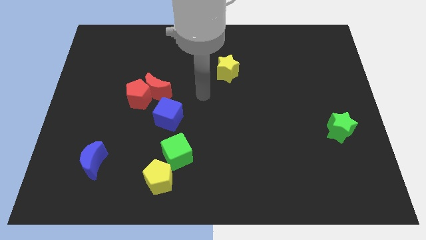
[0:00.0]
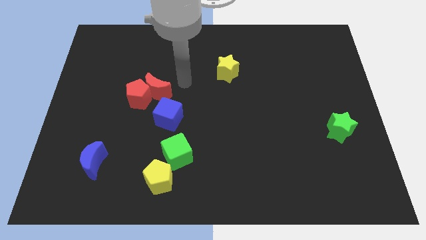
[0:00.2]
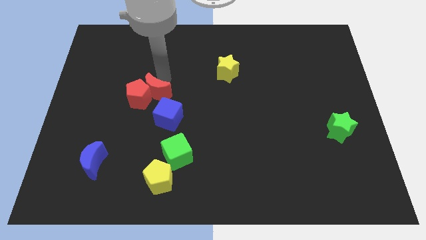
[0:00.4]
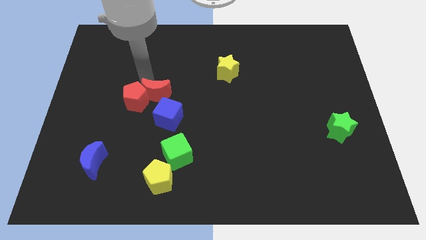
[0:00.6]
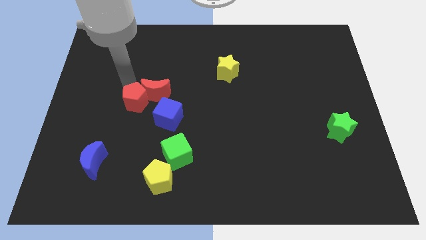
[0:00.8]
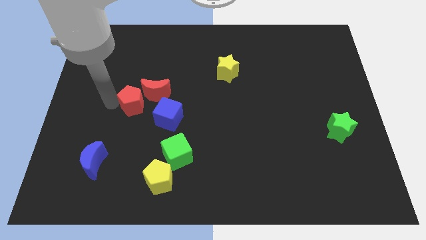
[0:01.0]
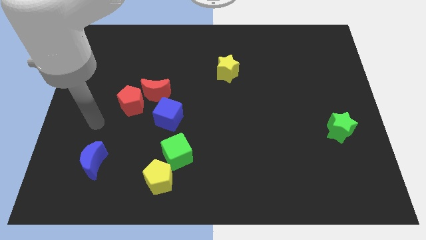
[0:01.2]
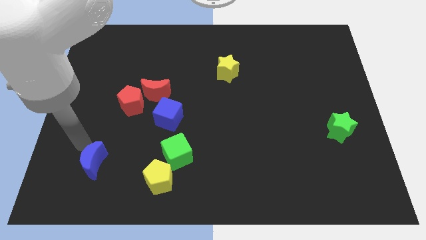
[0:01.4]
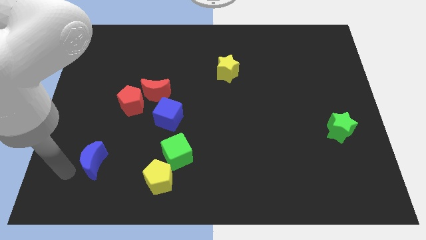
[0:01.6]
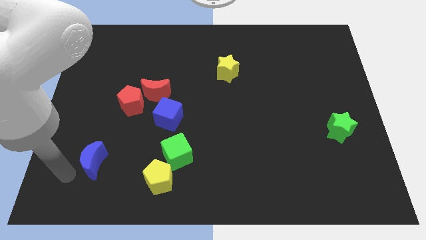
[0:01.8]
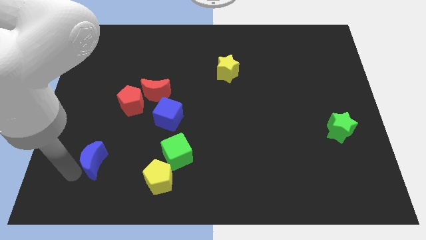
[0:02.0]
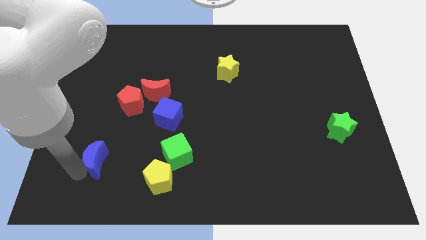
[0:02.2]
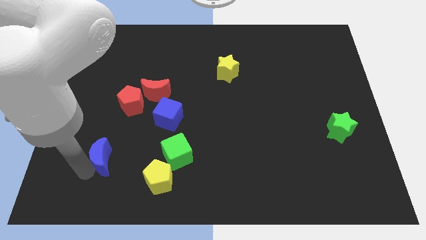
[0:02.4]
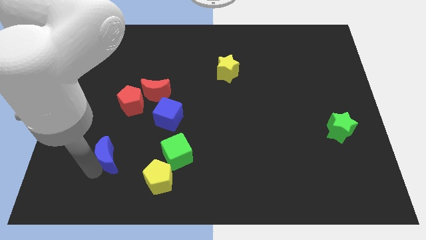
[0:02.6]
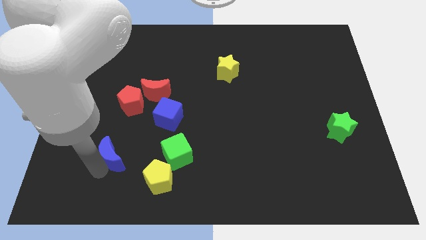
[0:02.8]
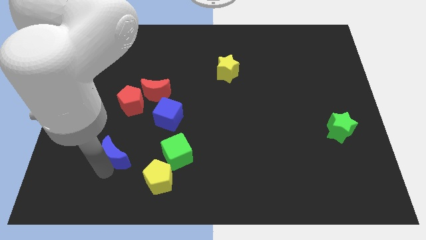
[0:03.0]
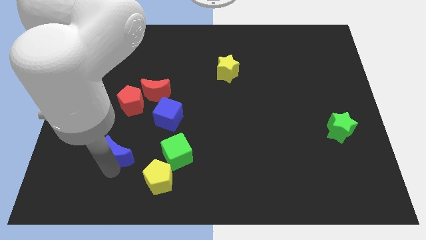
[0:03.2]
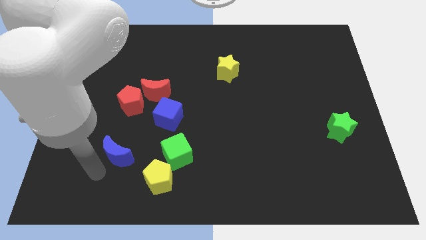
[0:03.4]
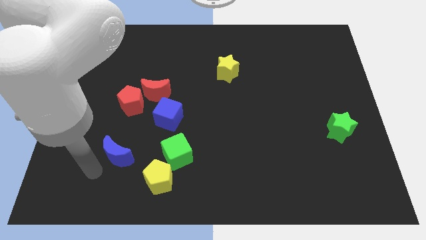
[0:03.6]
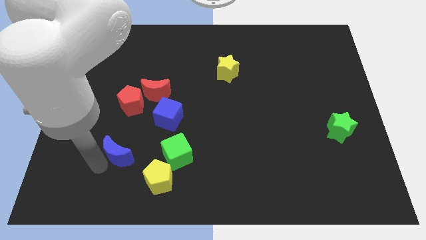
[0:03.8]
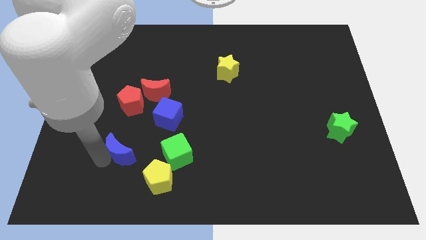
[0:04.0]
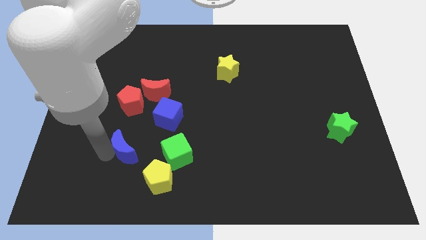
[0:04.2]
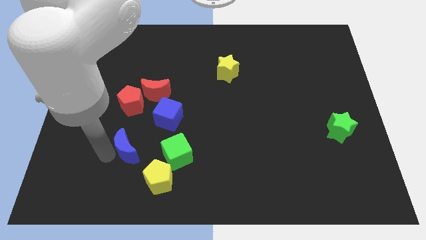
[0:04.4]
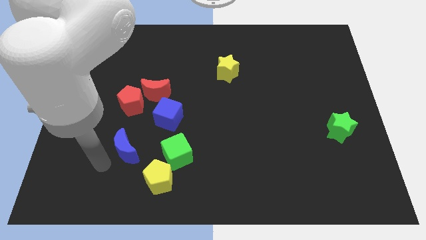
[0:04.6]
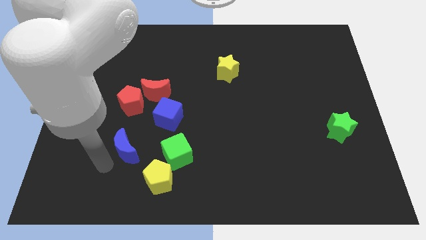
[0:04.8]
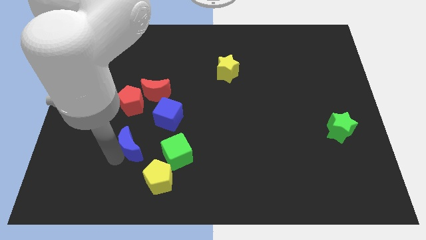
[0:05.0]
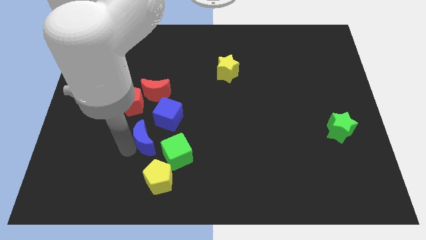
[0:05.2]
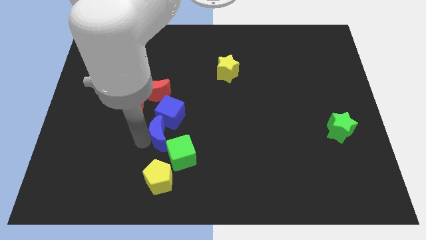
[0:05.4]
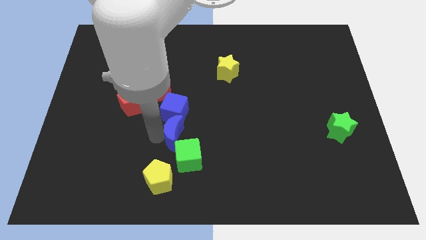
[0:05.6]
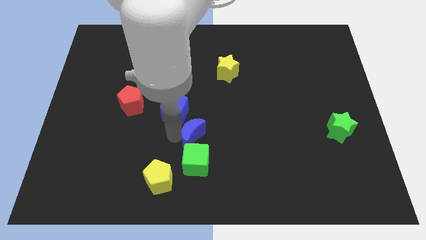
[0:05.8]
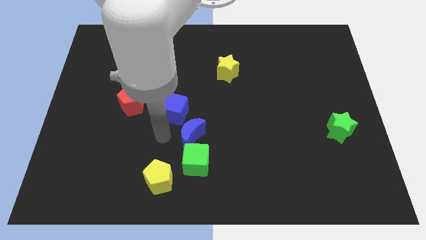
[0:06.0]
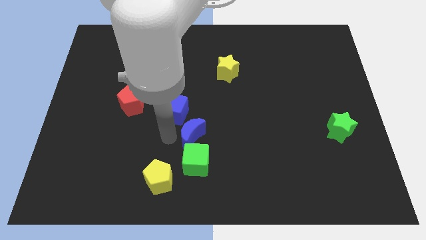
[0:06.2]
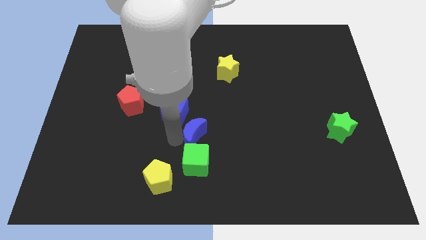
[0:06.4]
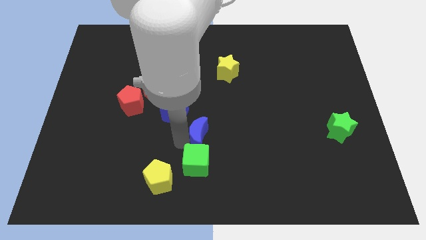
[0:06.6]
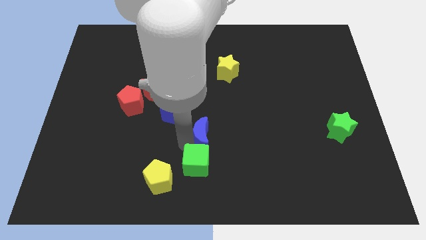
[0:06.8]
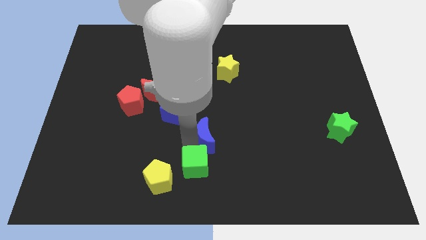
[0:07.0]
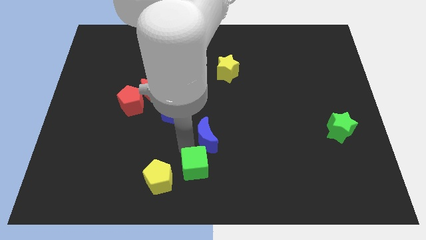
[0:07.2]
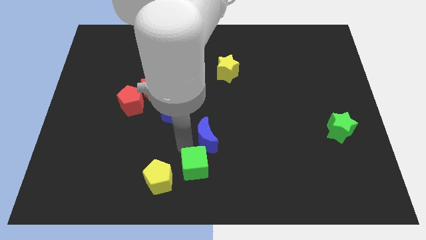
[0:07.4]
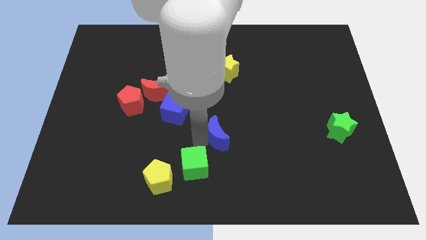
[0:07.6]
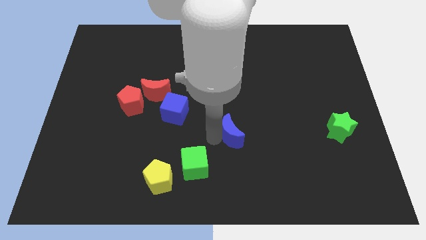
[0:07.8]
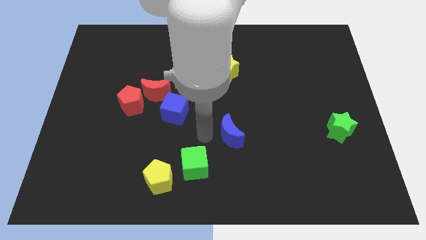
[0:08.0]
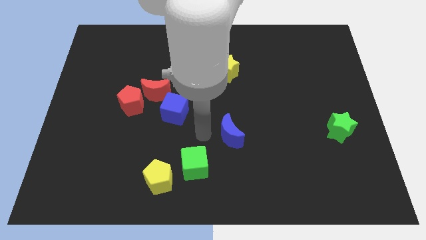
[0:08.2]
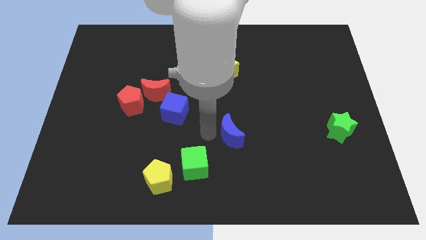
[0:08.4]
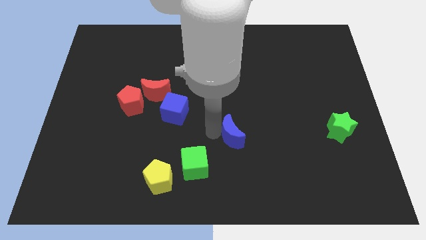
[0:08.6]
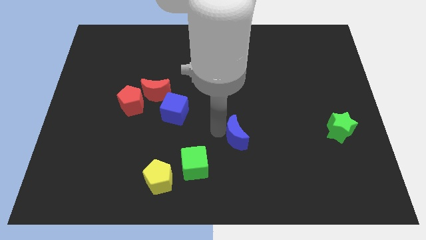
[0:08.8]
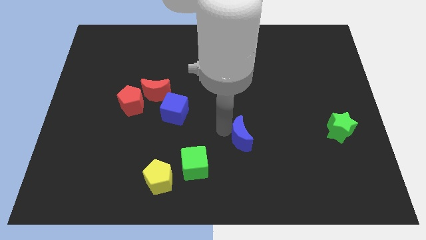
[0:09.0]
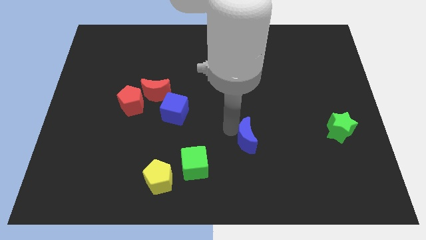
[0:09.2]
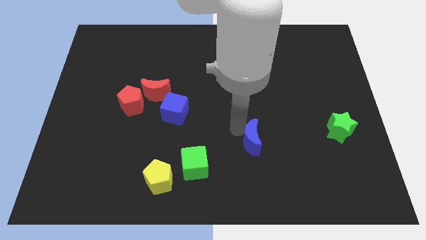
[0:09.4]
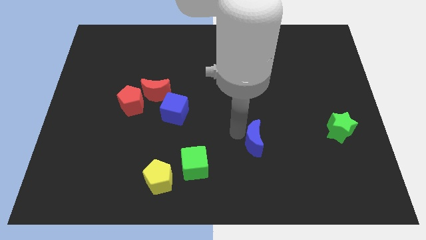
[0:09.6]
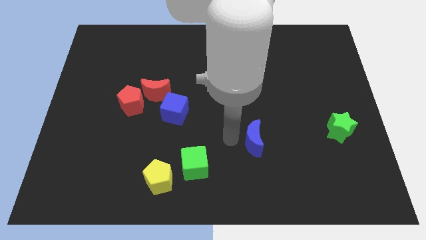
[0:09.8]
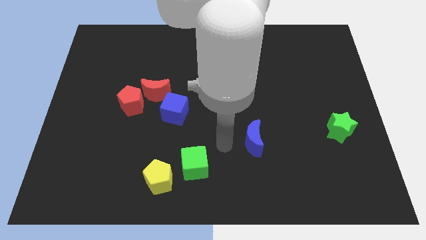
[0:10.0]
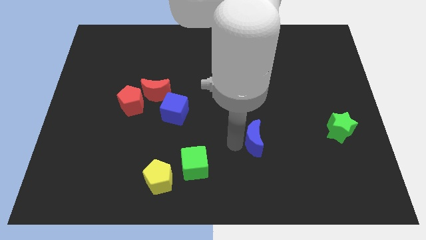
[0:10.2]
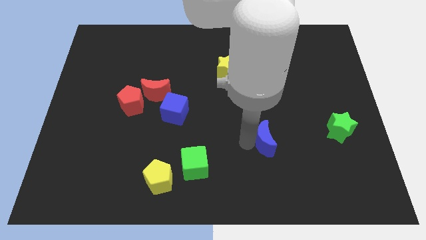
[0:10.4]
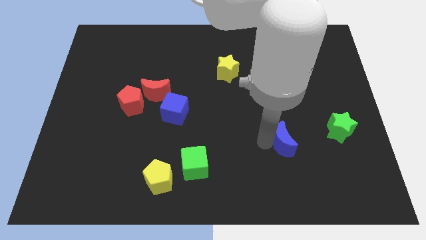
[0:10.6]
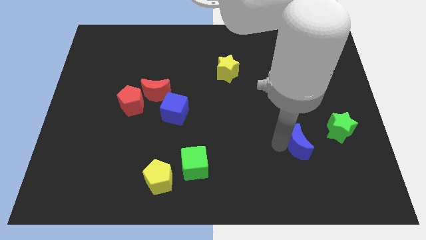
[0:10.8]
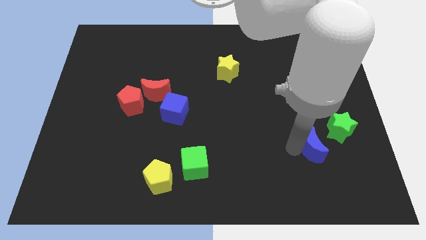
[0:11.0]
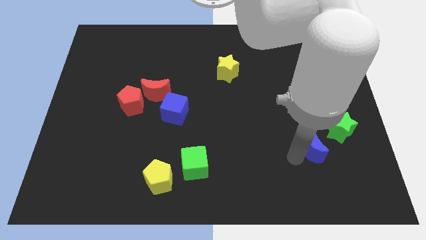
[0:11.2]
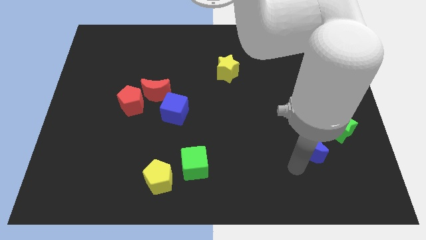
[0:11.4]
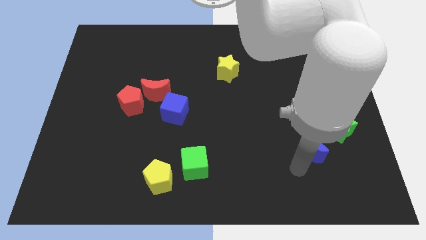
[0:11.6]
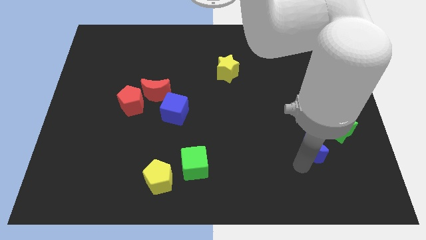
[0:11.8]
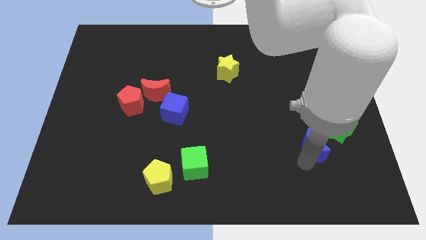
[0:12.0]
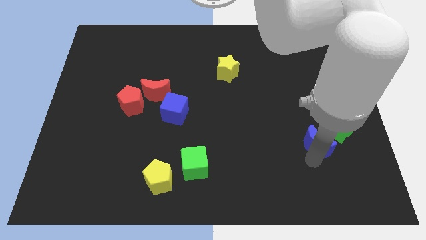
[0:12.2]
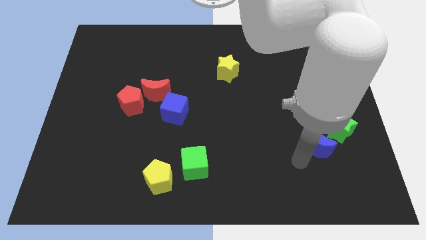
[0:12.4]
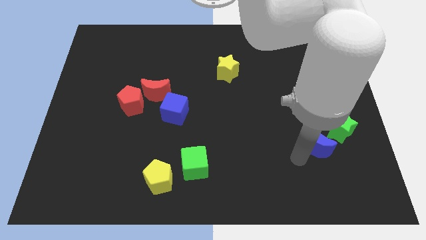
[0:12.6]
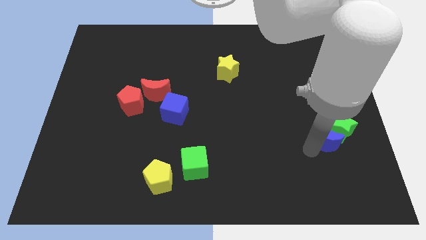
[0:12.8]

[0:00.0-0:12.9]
slide the blue moon towards the green star

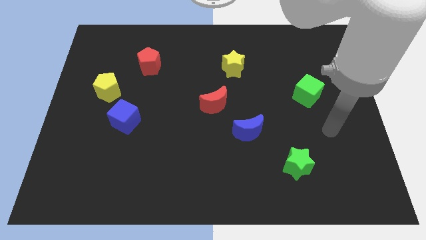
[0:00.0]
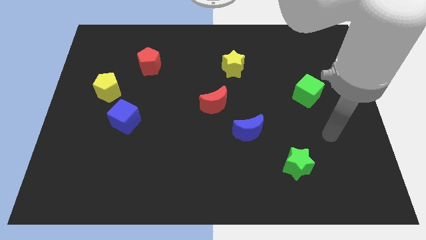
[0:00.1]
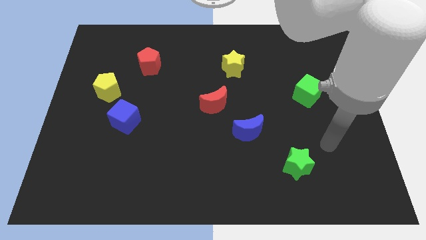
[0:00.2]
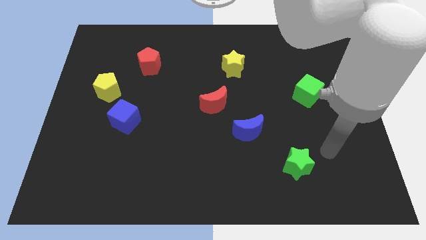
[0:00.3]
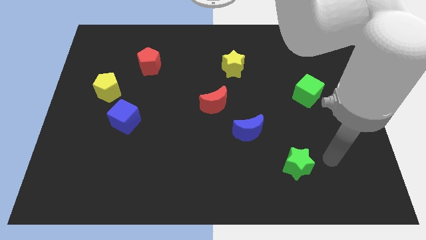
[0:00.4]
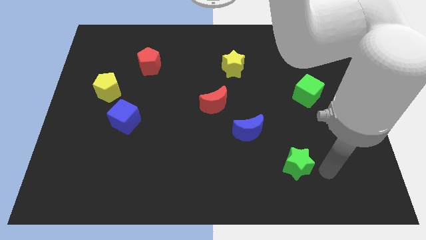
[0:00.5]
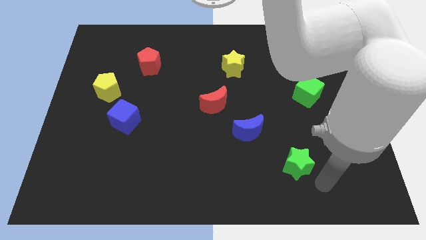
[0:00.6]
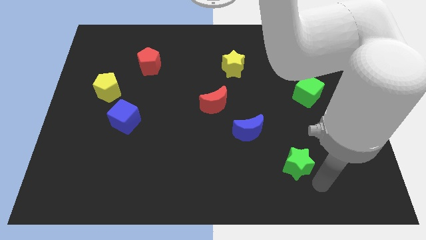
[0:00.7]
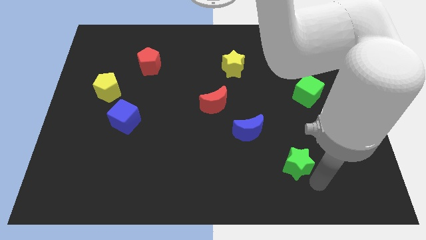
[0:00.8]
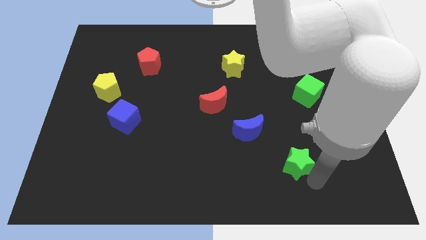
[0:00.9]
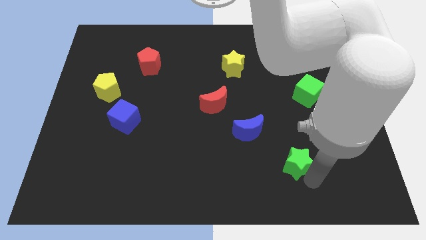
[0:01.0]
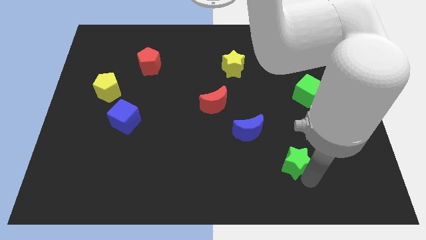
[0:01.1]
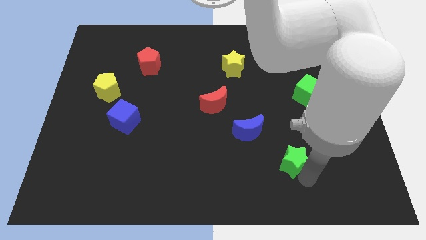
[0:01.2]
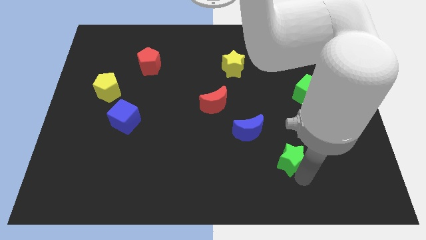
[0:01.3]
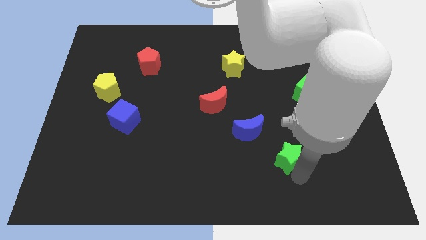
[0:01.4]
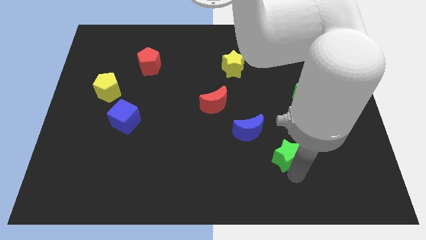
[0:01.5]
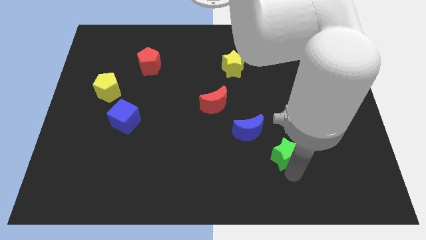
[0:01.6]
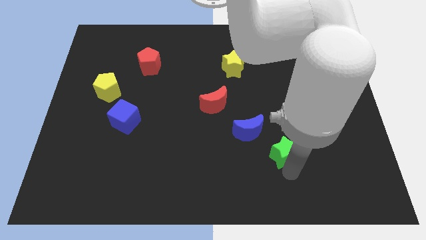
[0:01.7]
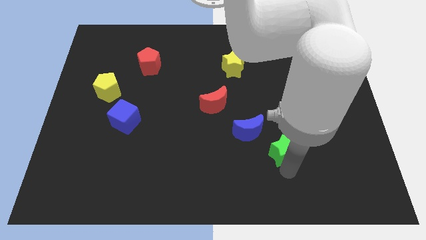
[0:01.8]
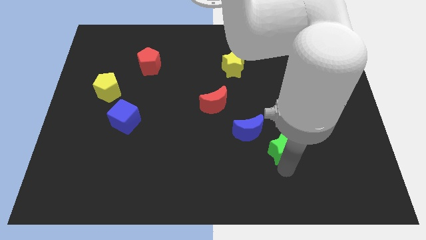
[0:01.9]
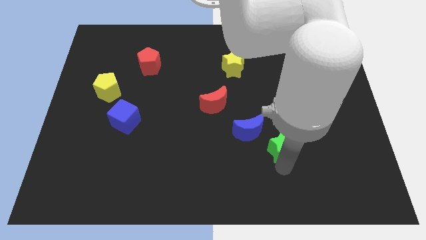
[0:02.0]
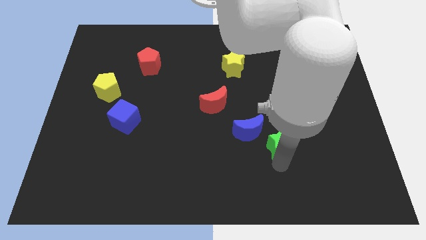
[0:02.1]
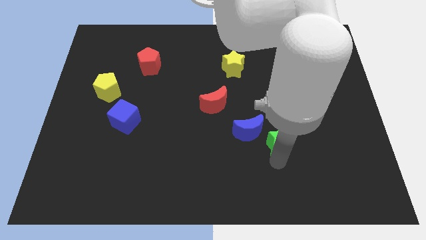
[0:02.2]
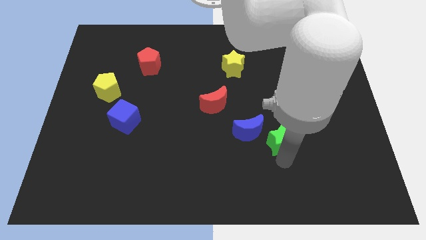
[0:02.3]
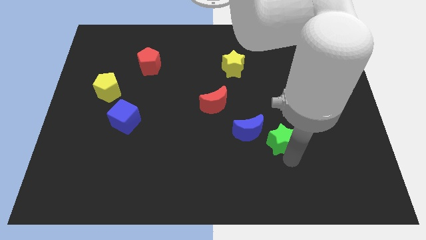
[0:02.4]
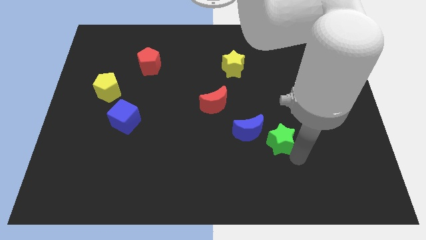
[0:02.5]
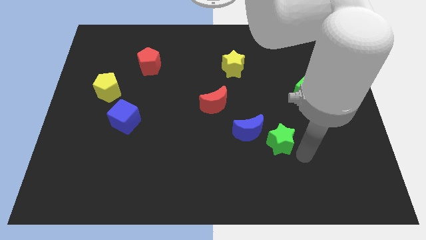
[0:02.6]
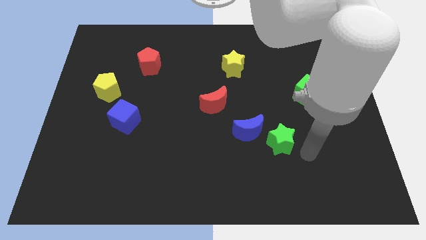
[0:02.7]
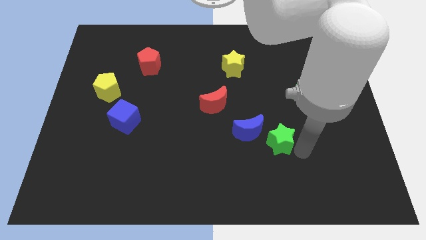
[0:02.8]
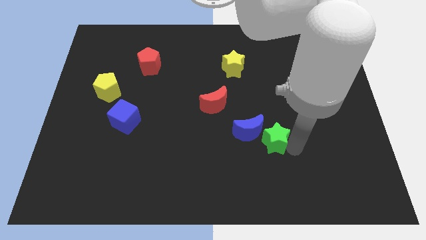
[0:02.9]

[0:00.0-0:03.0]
move the green star next to the blue moon
